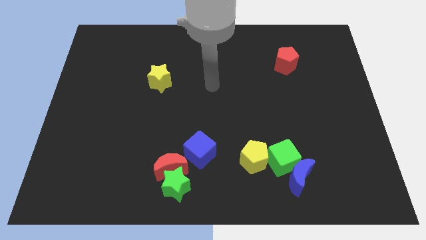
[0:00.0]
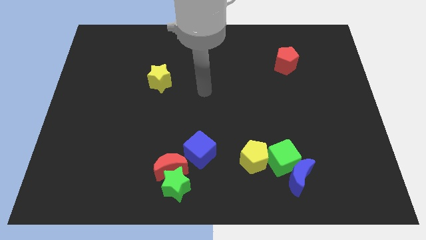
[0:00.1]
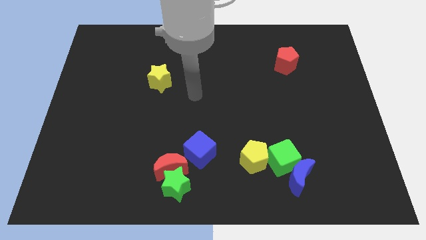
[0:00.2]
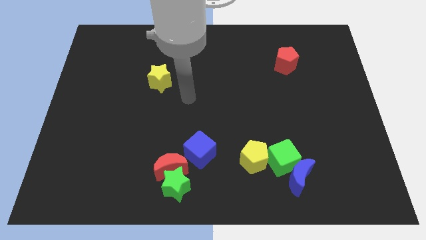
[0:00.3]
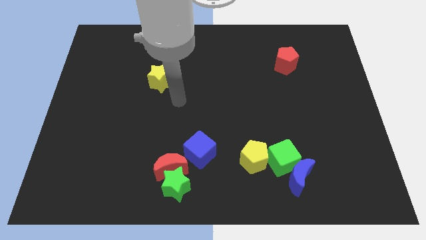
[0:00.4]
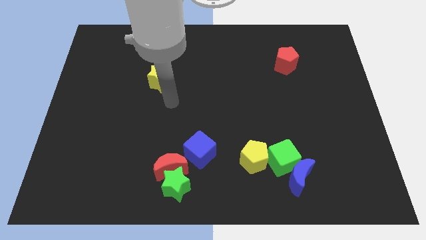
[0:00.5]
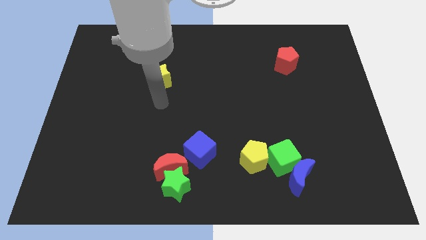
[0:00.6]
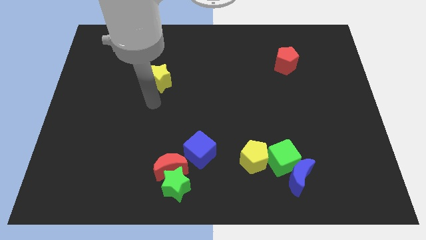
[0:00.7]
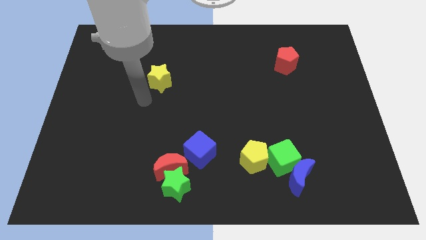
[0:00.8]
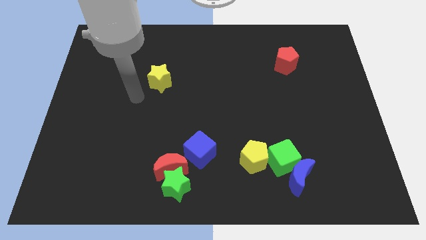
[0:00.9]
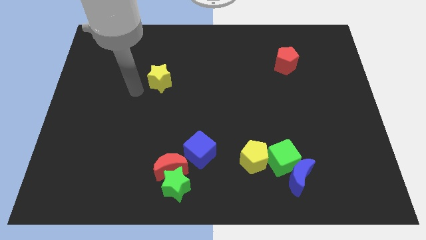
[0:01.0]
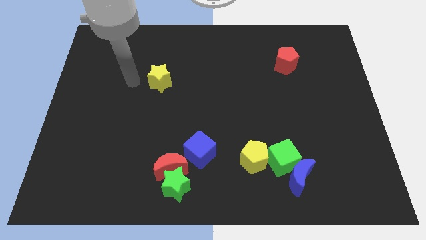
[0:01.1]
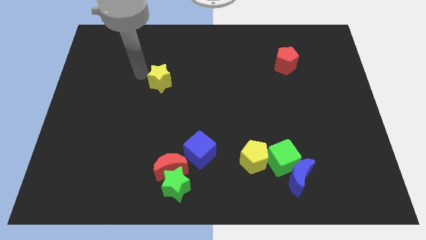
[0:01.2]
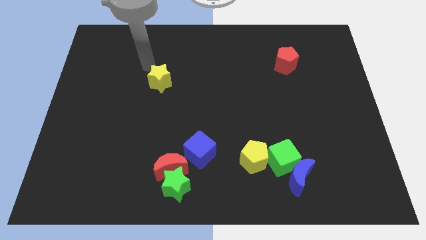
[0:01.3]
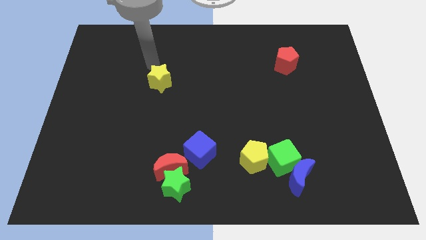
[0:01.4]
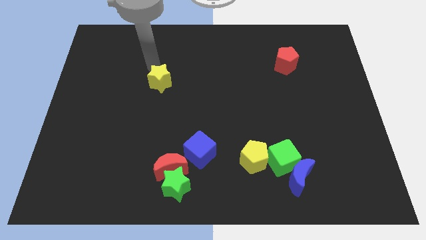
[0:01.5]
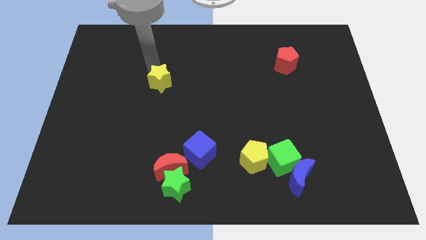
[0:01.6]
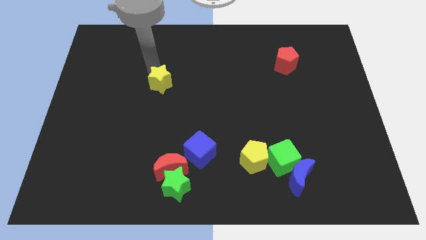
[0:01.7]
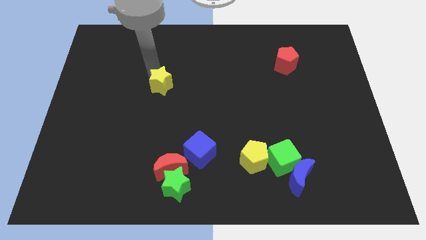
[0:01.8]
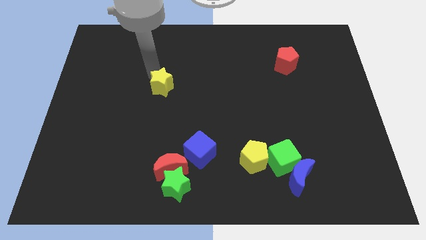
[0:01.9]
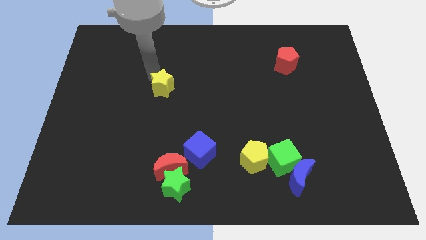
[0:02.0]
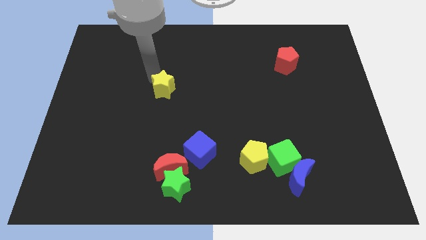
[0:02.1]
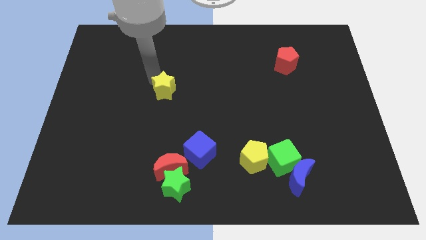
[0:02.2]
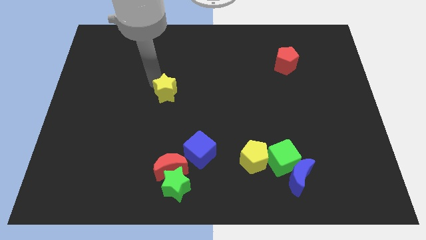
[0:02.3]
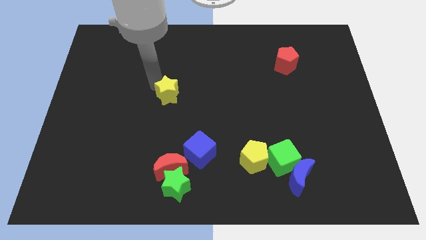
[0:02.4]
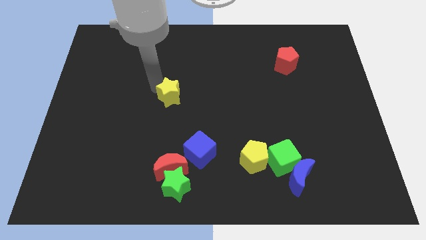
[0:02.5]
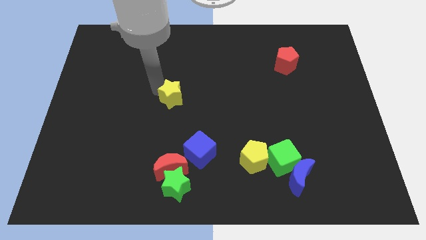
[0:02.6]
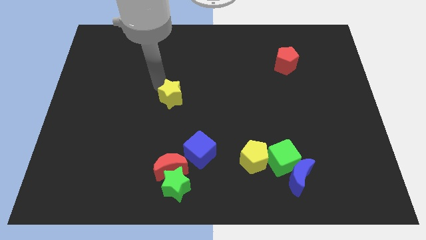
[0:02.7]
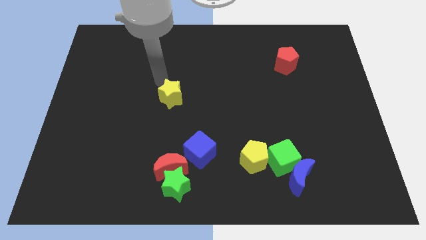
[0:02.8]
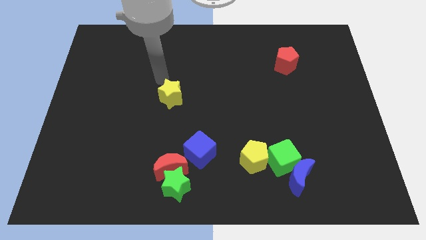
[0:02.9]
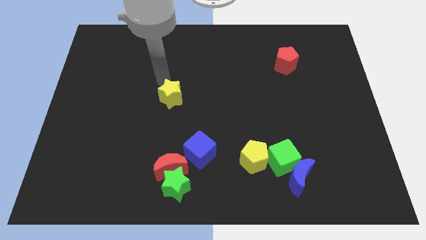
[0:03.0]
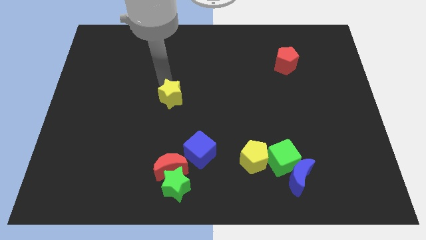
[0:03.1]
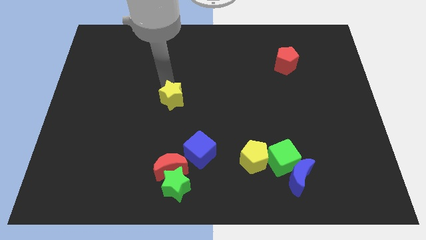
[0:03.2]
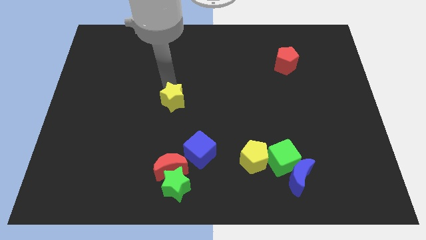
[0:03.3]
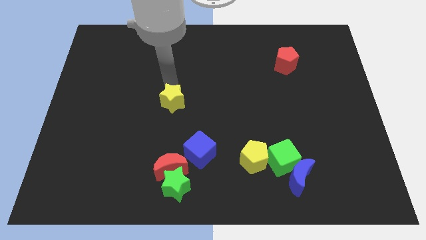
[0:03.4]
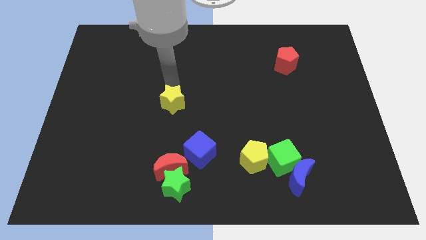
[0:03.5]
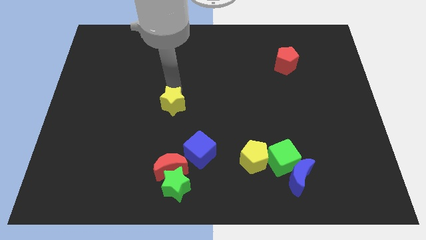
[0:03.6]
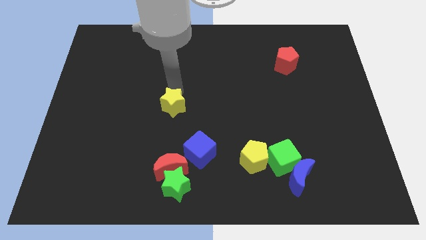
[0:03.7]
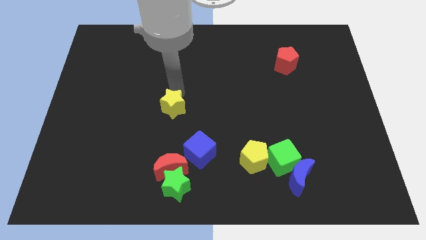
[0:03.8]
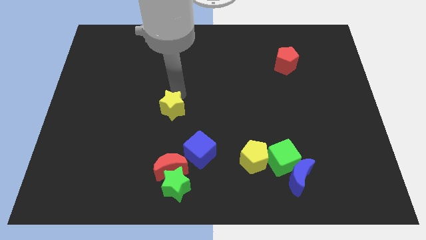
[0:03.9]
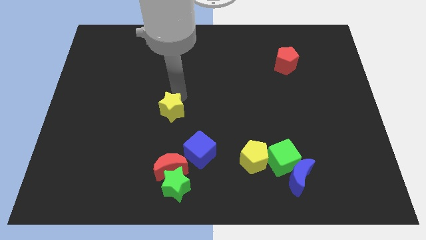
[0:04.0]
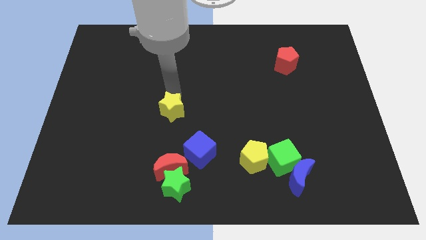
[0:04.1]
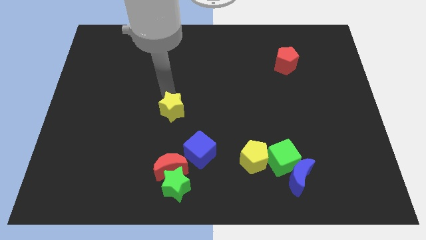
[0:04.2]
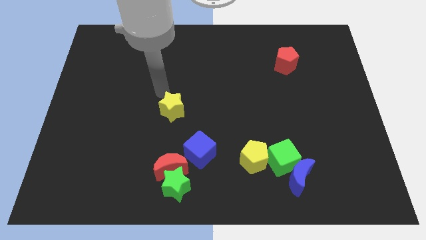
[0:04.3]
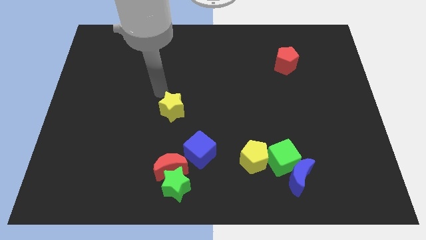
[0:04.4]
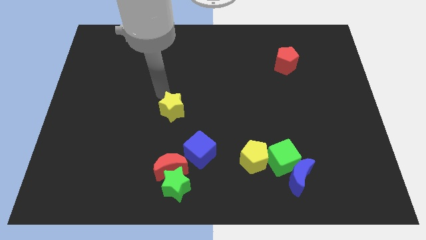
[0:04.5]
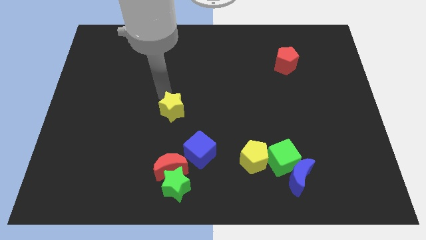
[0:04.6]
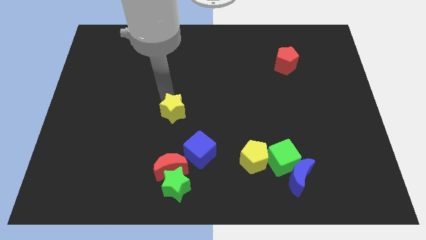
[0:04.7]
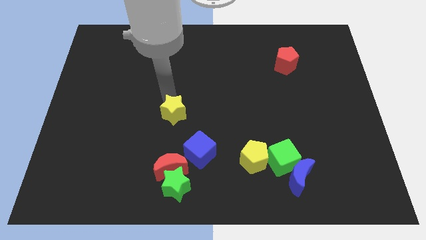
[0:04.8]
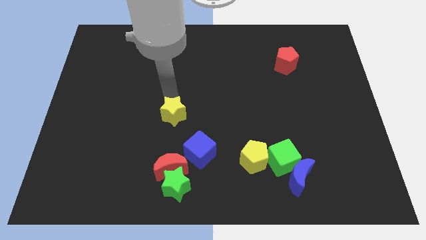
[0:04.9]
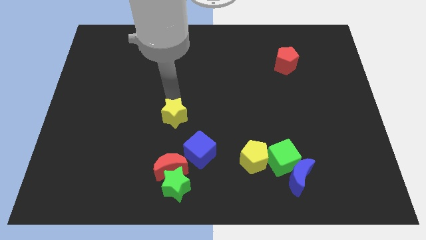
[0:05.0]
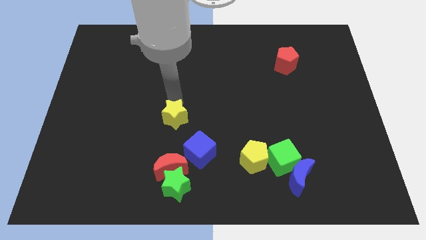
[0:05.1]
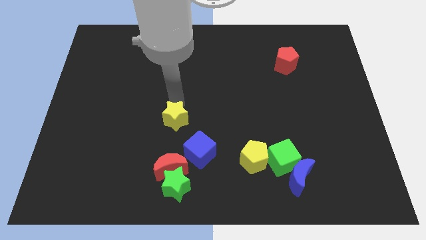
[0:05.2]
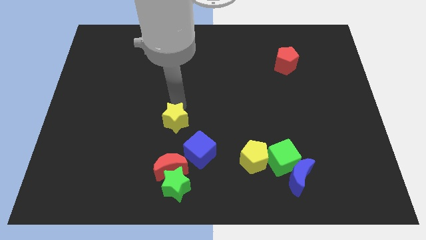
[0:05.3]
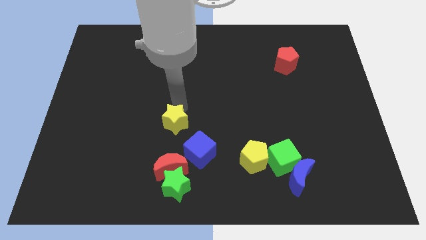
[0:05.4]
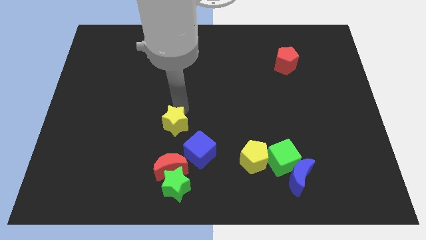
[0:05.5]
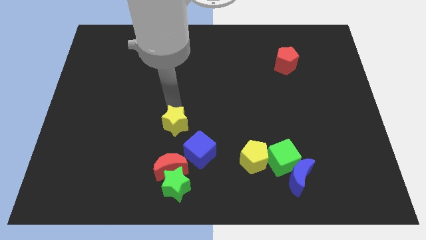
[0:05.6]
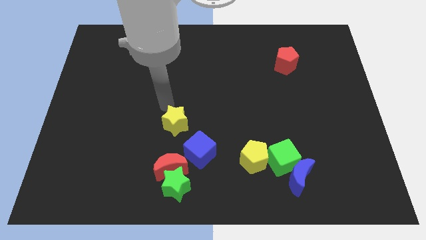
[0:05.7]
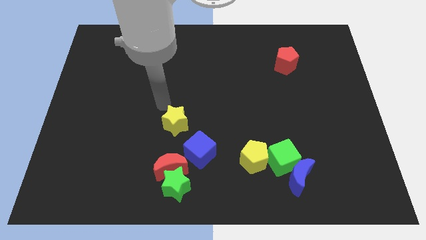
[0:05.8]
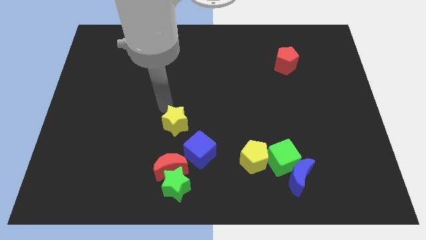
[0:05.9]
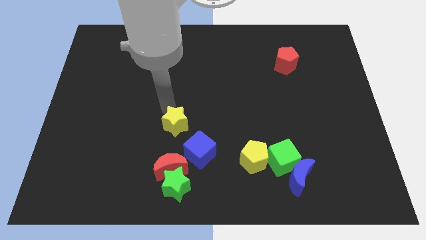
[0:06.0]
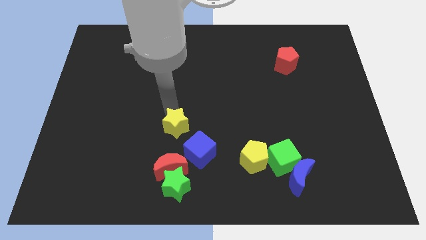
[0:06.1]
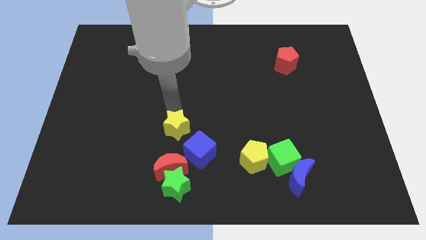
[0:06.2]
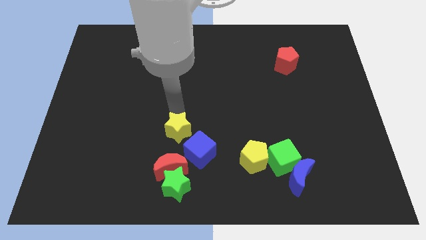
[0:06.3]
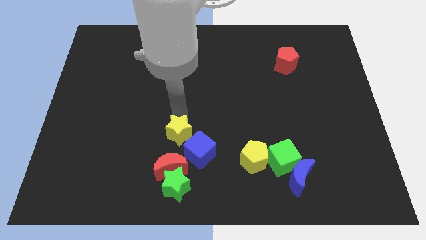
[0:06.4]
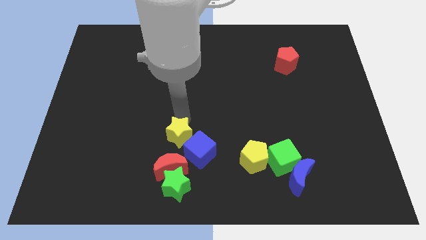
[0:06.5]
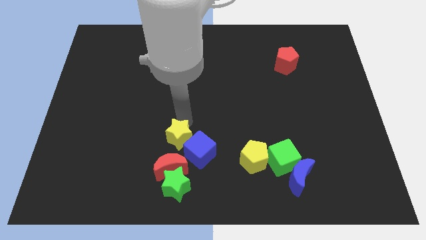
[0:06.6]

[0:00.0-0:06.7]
push the yellow star towards the blue cube
